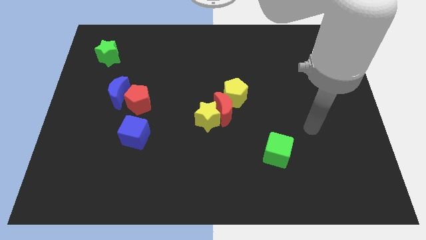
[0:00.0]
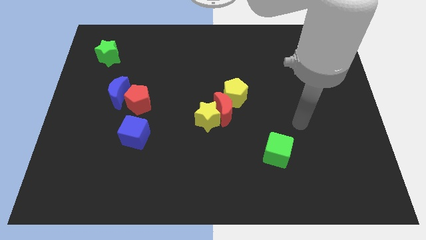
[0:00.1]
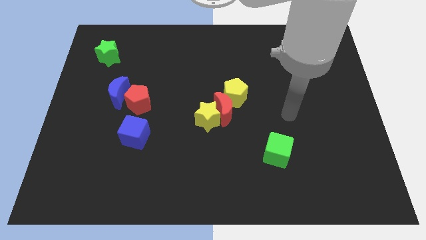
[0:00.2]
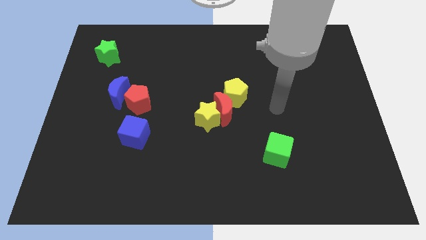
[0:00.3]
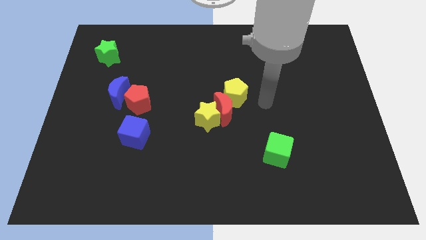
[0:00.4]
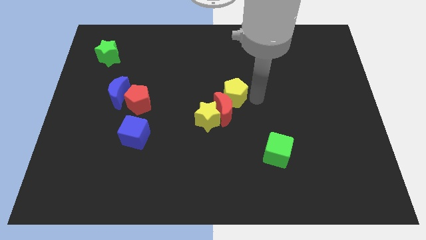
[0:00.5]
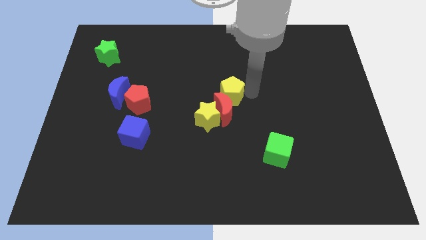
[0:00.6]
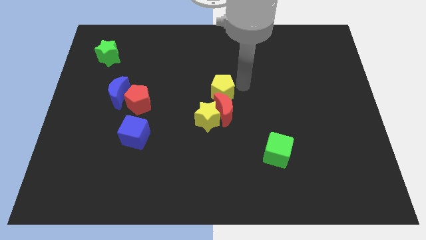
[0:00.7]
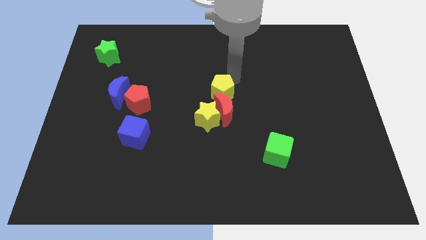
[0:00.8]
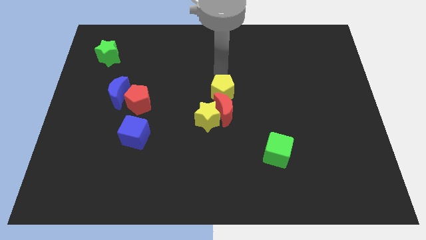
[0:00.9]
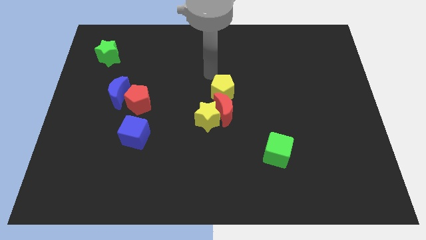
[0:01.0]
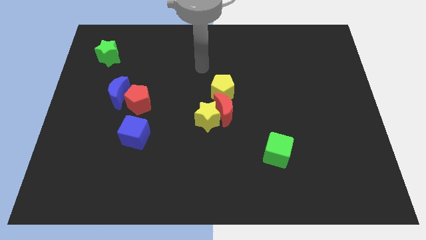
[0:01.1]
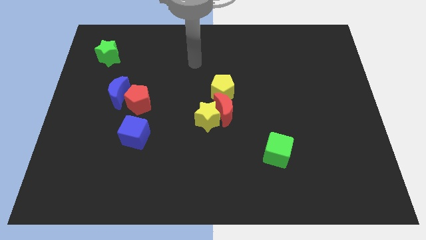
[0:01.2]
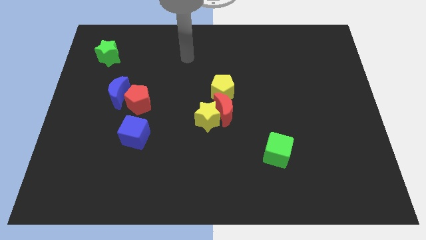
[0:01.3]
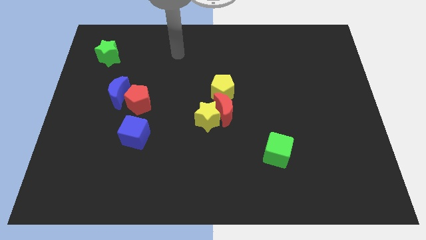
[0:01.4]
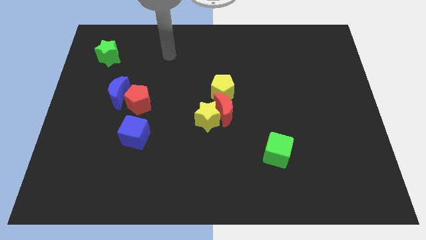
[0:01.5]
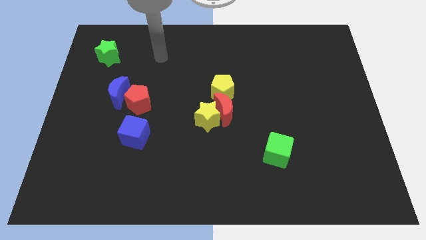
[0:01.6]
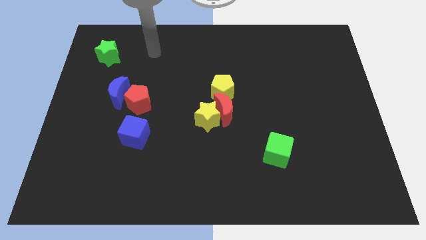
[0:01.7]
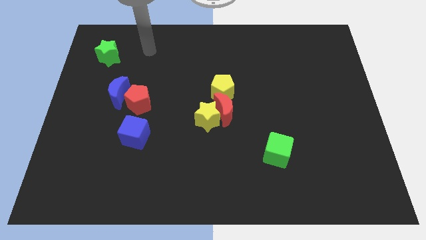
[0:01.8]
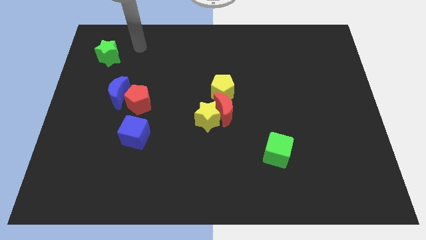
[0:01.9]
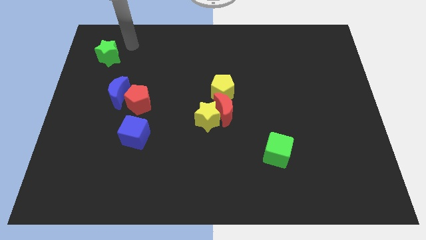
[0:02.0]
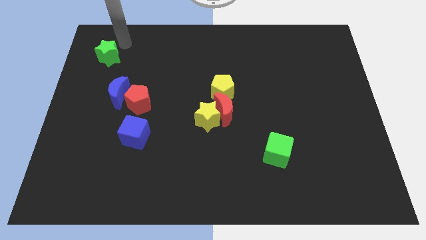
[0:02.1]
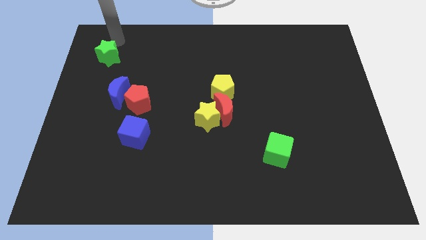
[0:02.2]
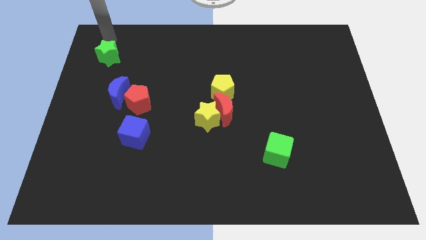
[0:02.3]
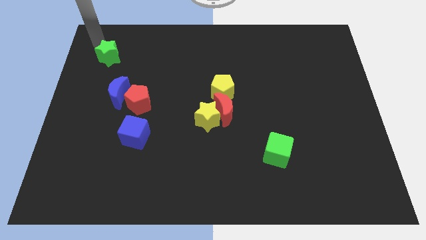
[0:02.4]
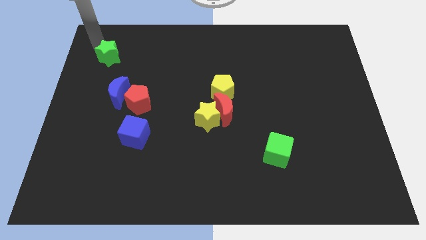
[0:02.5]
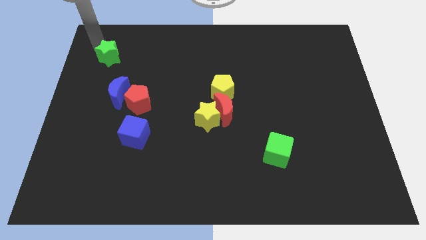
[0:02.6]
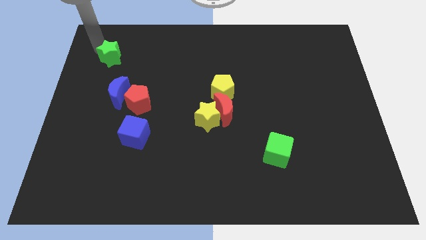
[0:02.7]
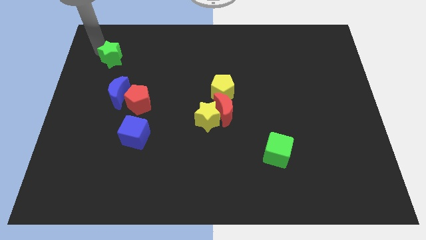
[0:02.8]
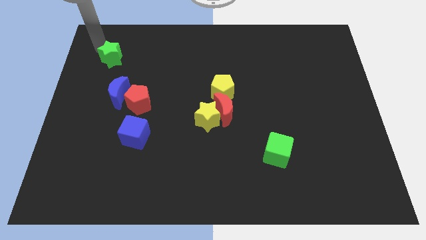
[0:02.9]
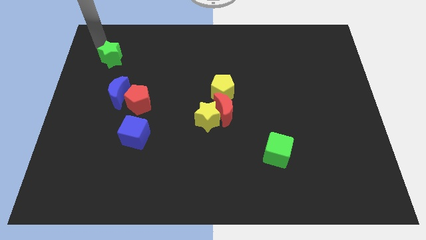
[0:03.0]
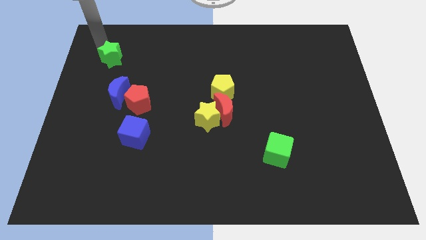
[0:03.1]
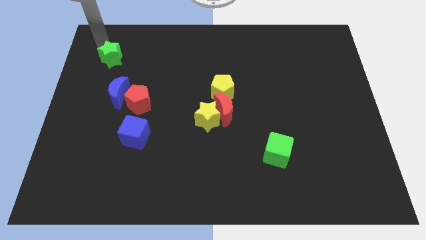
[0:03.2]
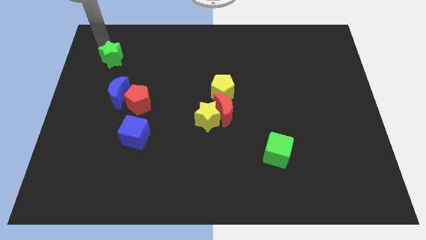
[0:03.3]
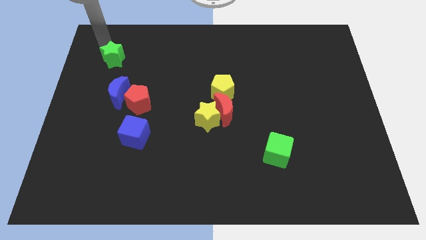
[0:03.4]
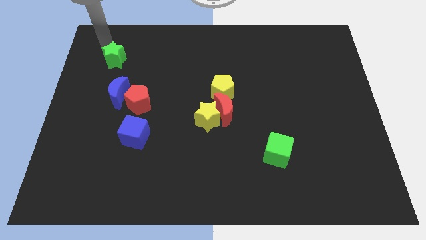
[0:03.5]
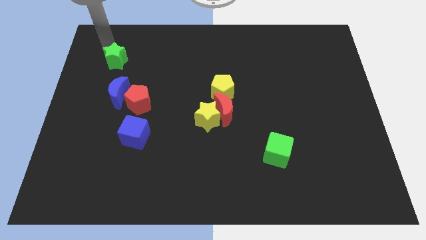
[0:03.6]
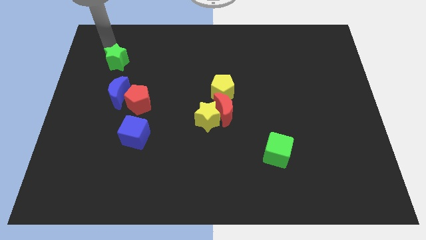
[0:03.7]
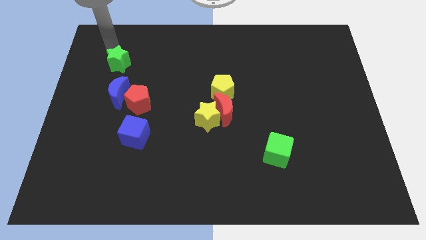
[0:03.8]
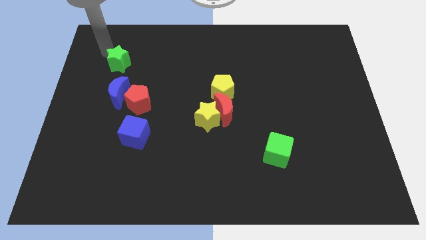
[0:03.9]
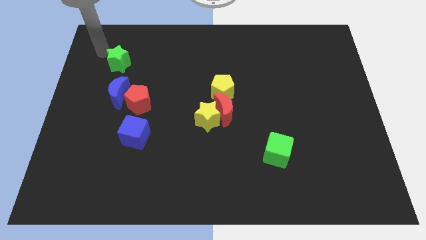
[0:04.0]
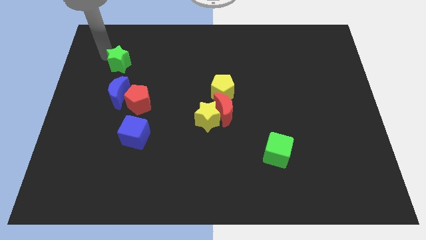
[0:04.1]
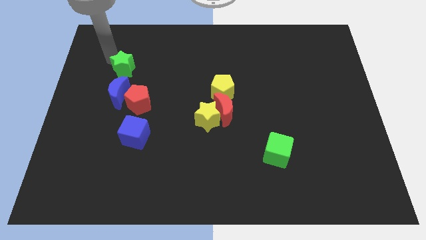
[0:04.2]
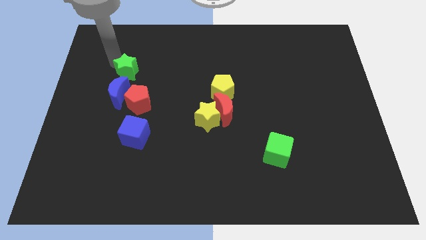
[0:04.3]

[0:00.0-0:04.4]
slide the green star a bit downwards and right

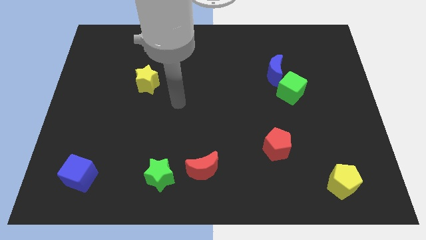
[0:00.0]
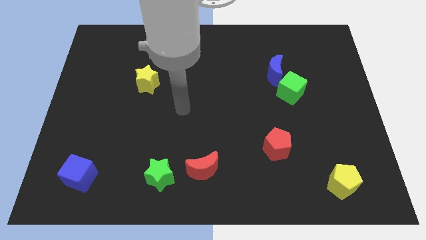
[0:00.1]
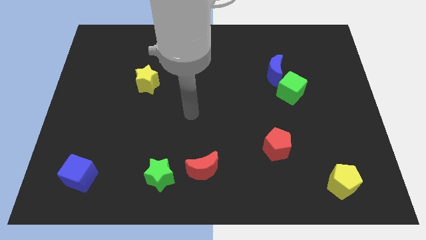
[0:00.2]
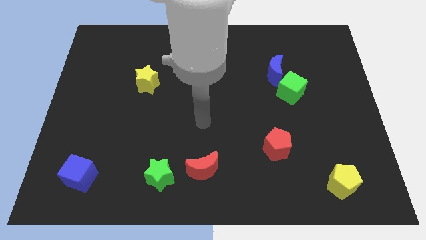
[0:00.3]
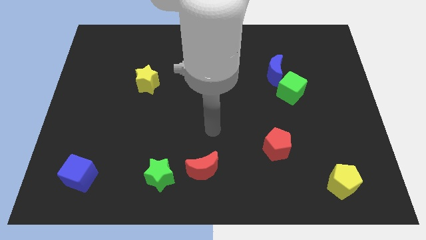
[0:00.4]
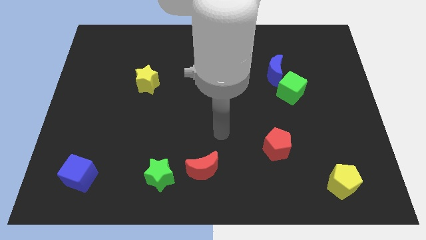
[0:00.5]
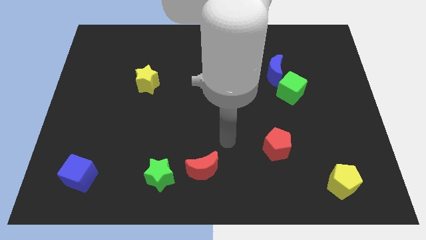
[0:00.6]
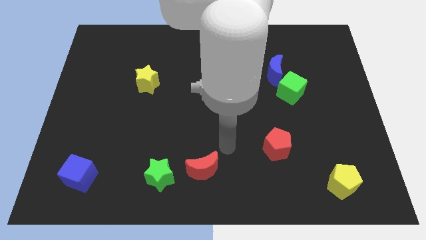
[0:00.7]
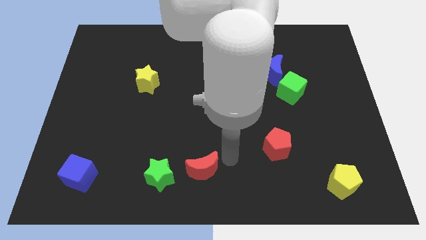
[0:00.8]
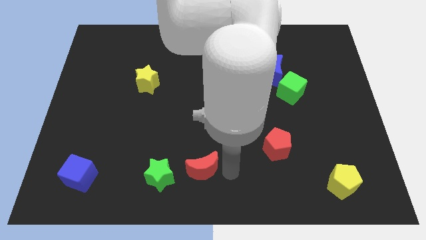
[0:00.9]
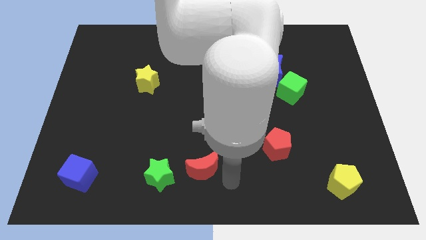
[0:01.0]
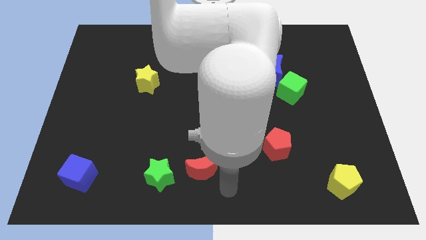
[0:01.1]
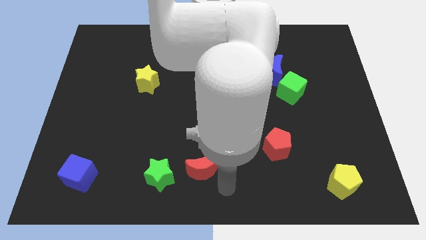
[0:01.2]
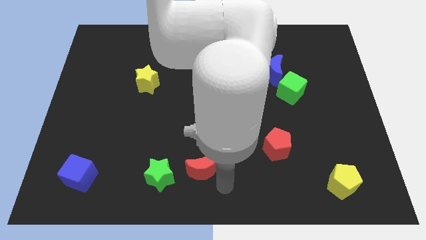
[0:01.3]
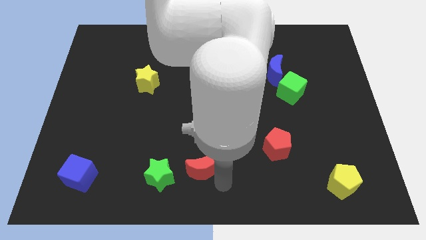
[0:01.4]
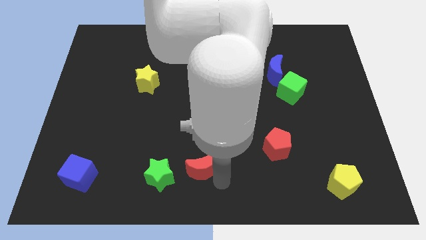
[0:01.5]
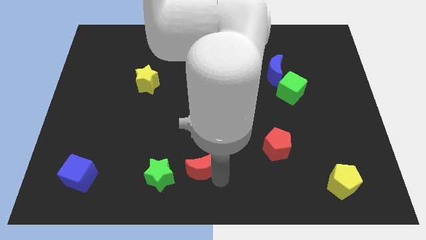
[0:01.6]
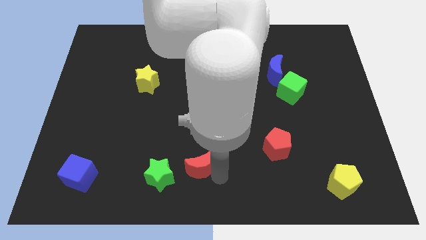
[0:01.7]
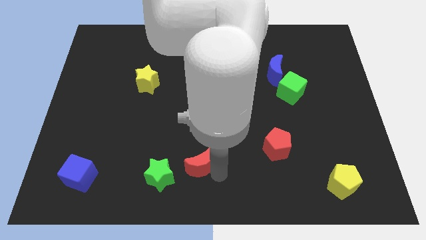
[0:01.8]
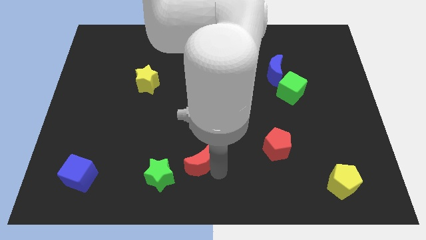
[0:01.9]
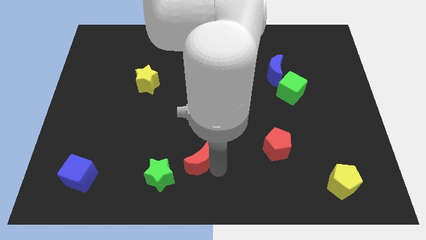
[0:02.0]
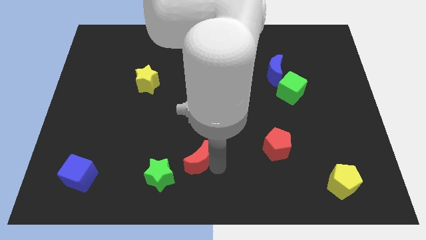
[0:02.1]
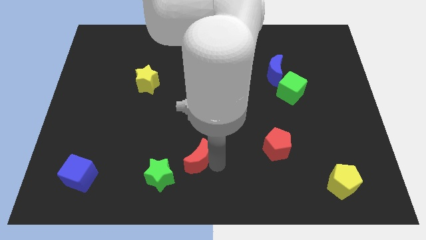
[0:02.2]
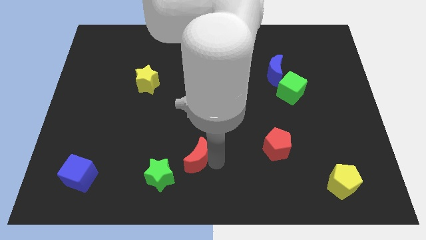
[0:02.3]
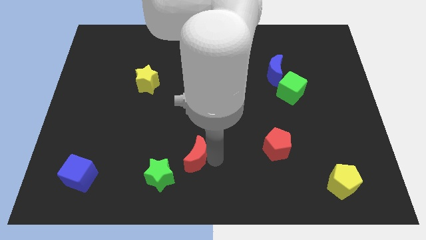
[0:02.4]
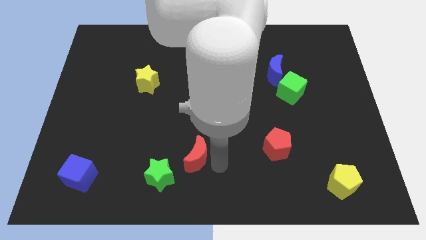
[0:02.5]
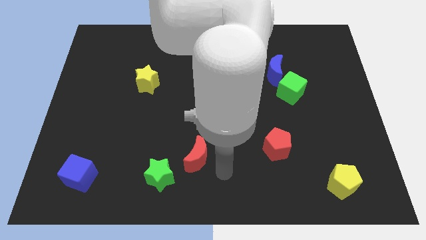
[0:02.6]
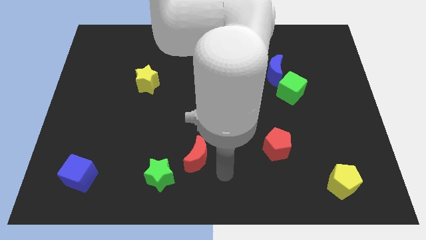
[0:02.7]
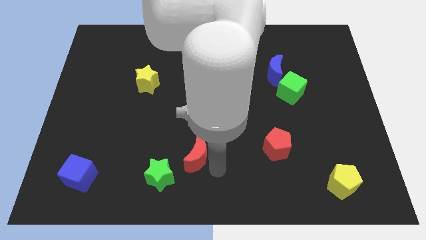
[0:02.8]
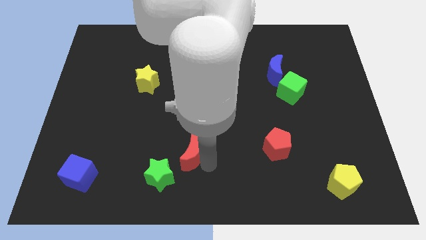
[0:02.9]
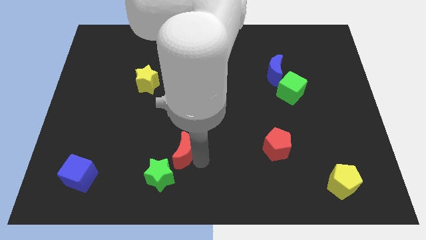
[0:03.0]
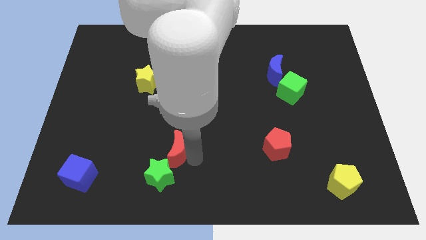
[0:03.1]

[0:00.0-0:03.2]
slightly move the red moon upwards and then left

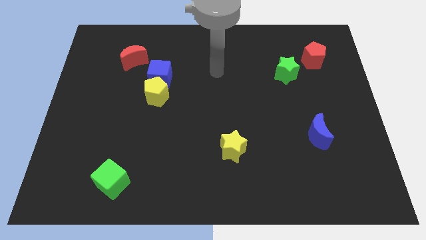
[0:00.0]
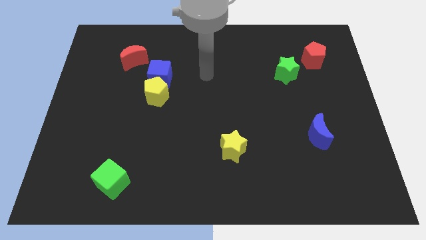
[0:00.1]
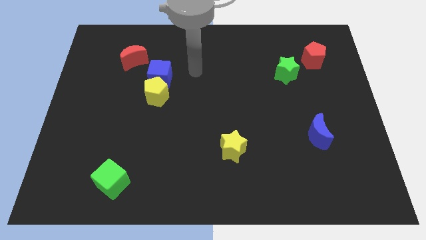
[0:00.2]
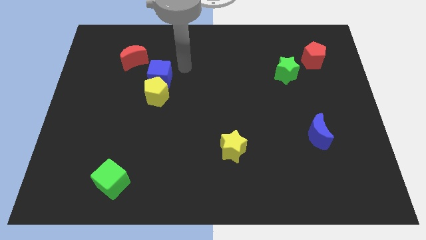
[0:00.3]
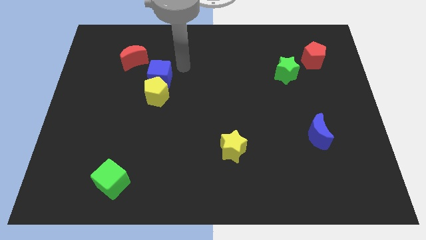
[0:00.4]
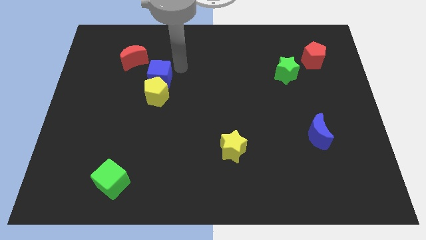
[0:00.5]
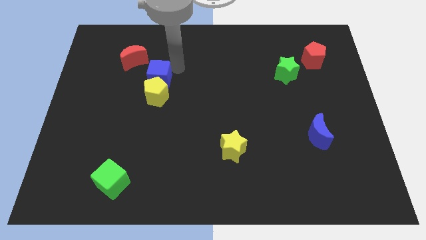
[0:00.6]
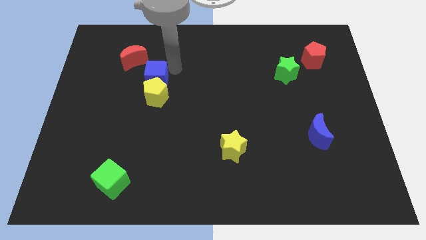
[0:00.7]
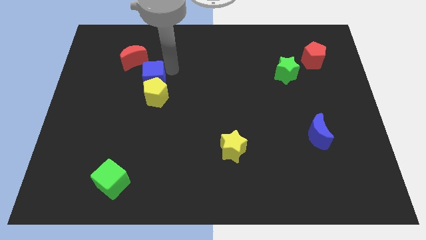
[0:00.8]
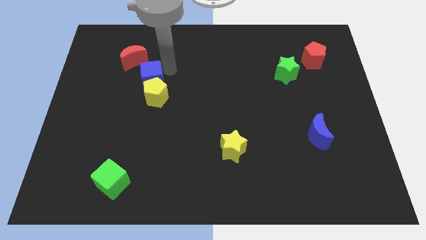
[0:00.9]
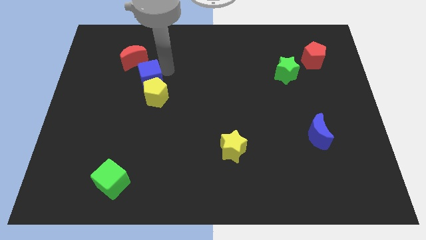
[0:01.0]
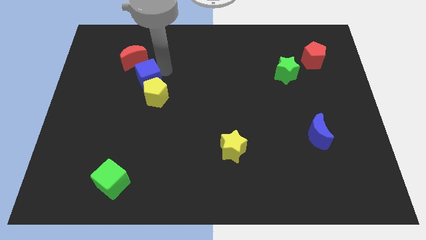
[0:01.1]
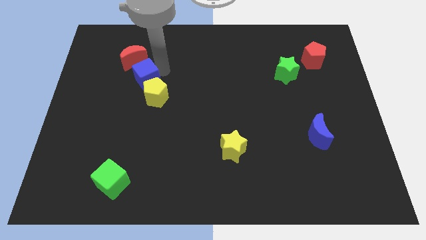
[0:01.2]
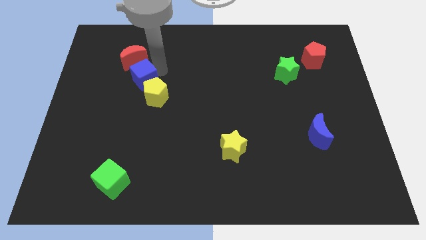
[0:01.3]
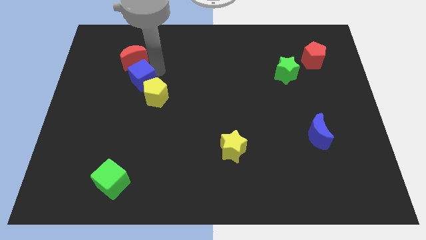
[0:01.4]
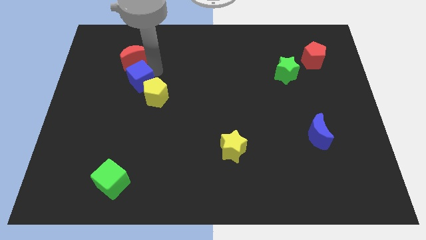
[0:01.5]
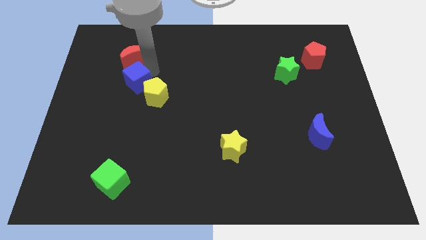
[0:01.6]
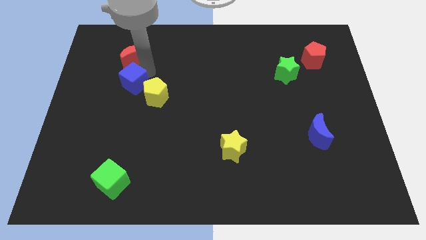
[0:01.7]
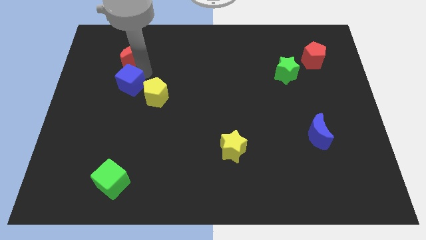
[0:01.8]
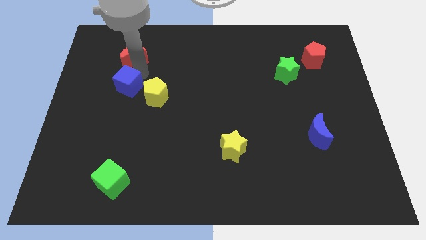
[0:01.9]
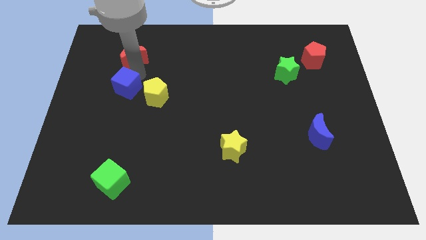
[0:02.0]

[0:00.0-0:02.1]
slightly slide the blue cube down and to the left
